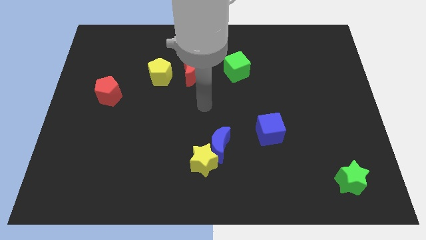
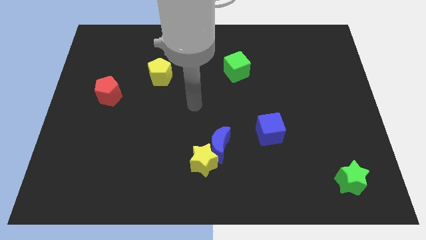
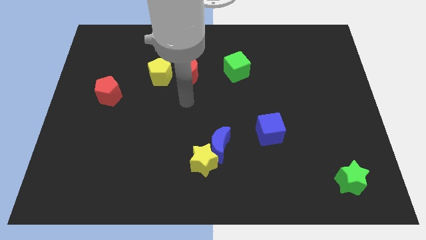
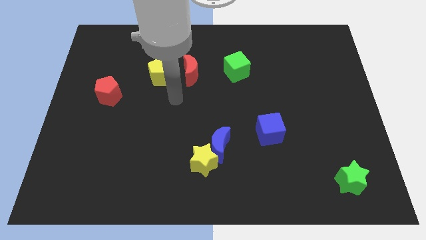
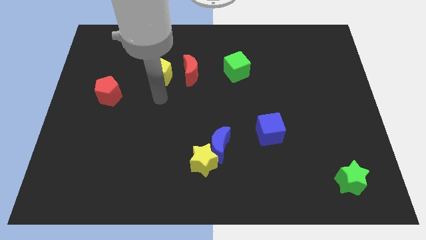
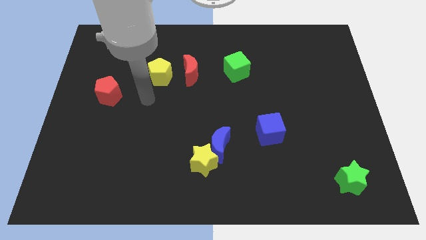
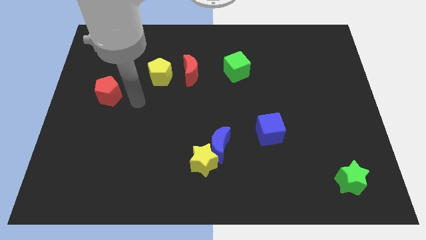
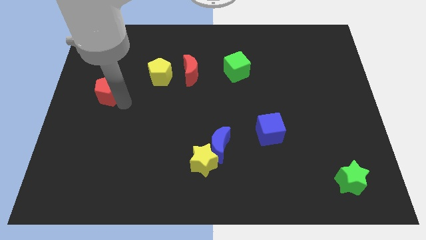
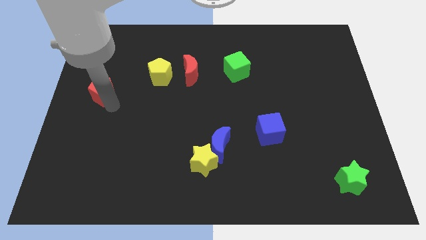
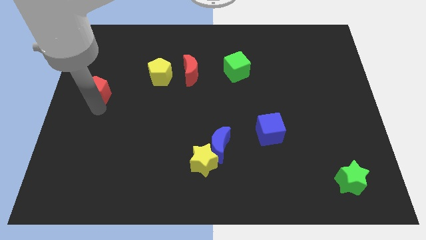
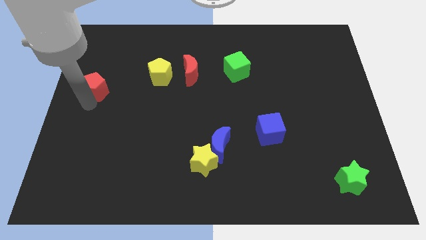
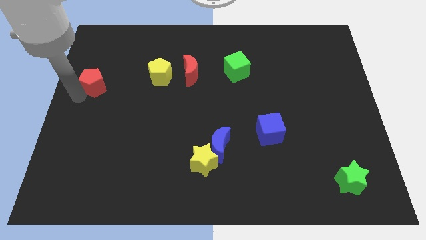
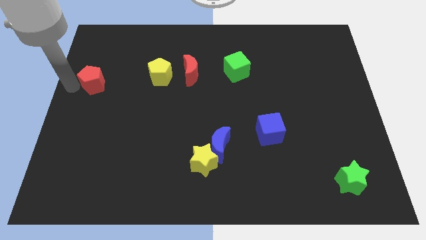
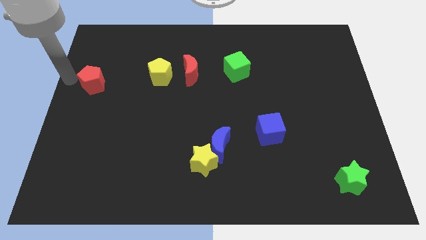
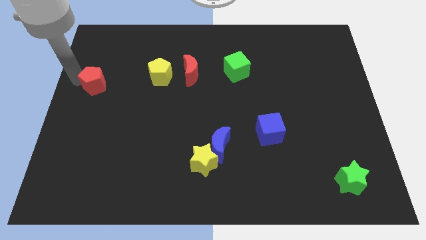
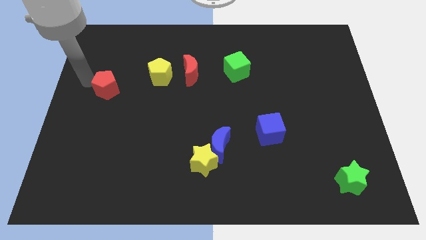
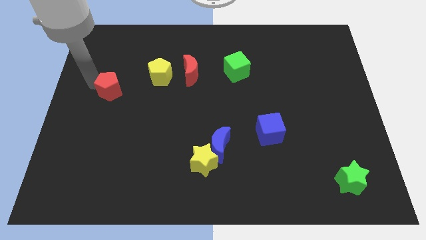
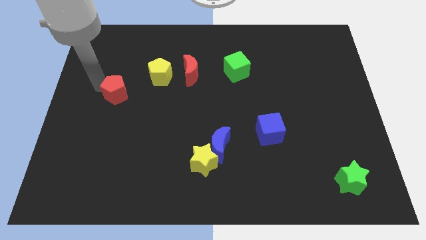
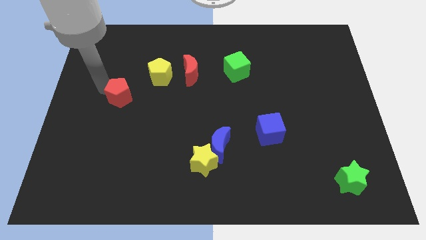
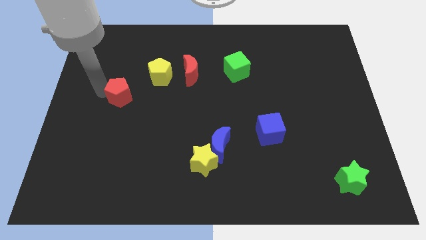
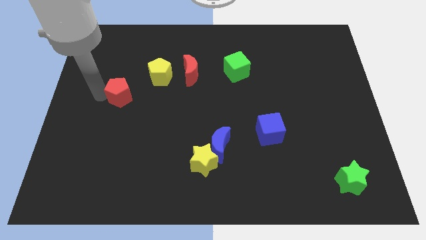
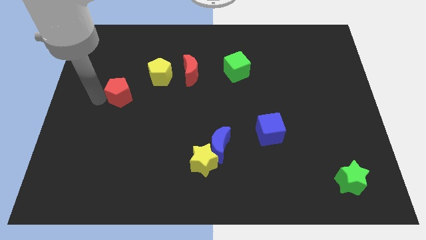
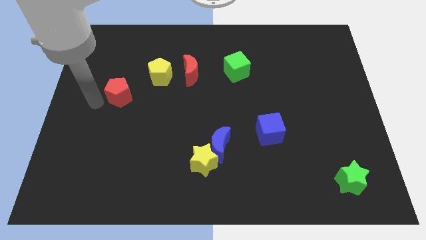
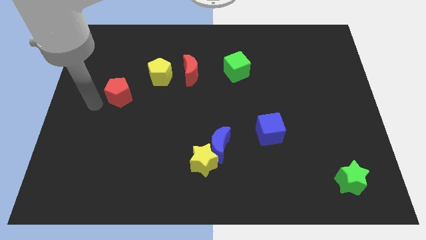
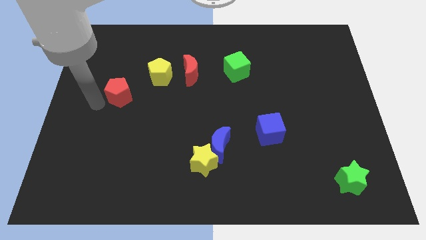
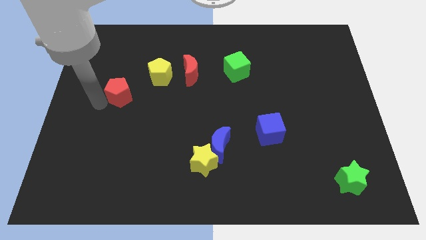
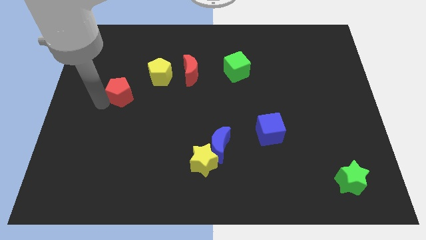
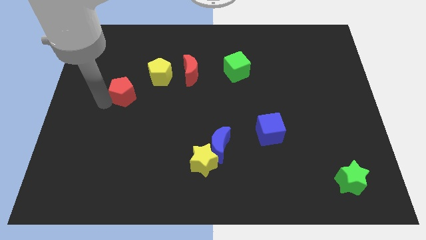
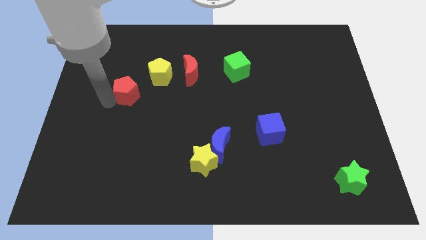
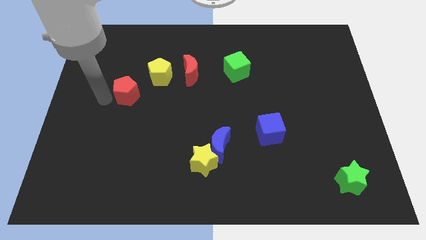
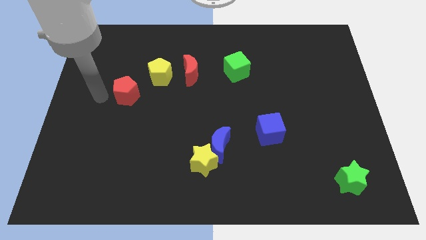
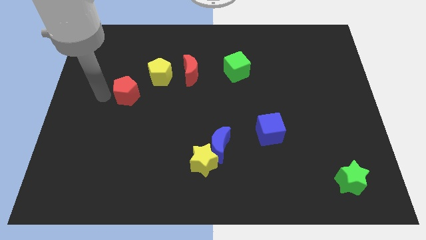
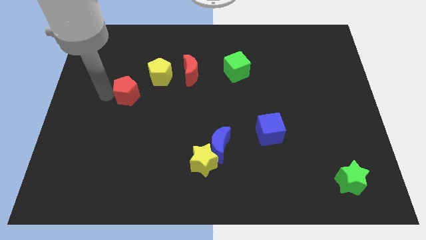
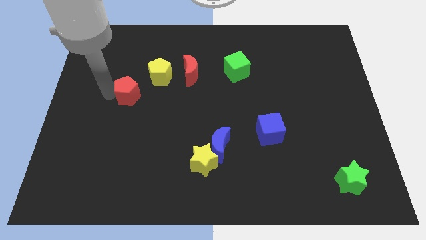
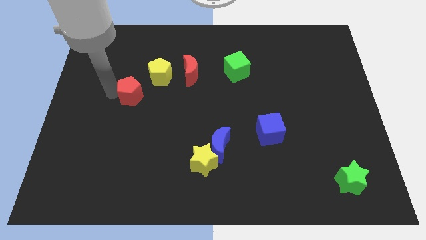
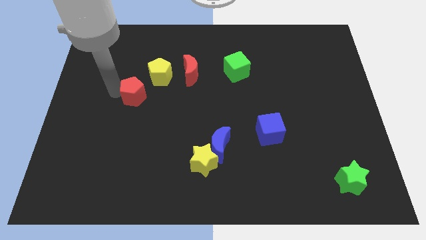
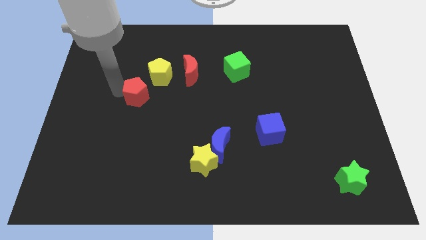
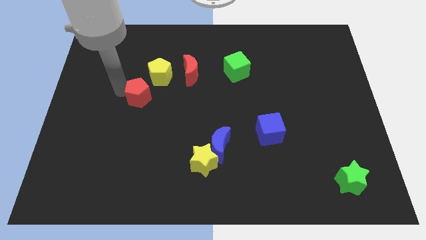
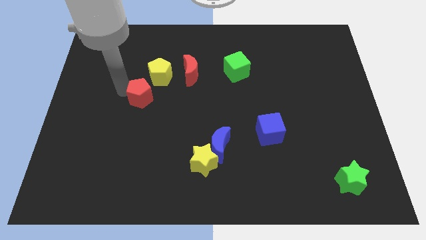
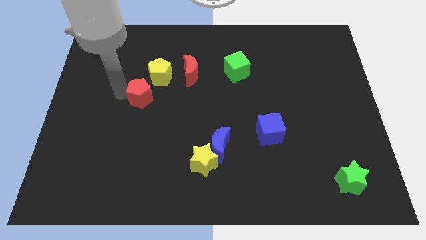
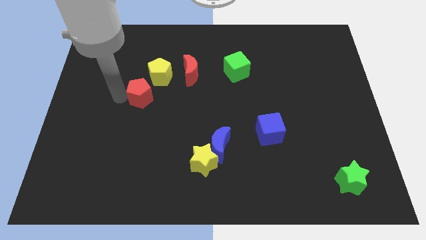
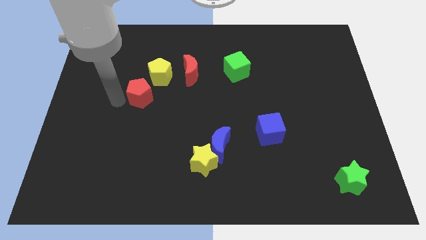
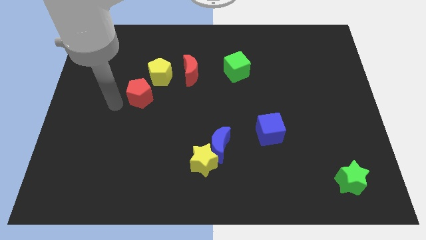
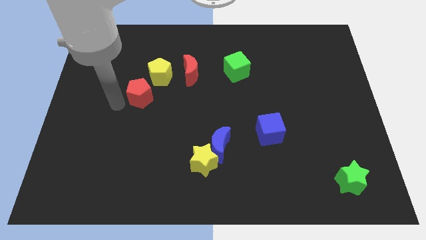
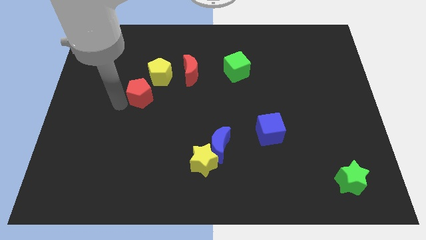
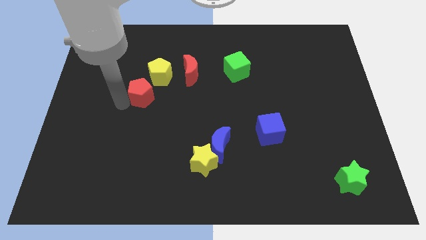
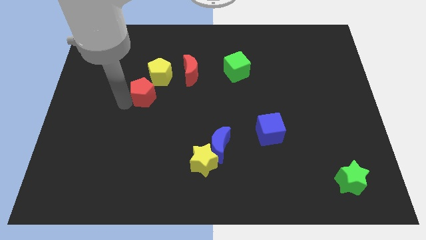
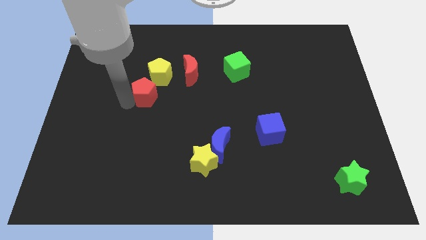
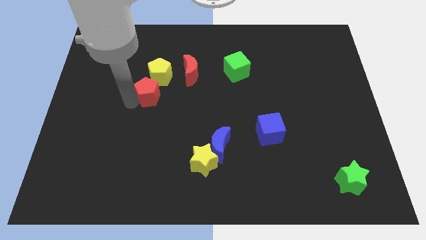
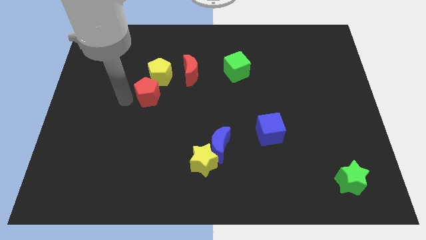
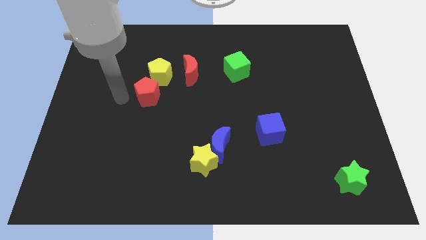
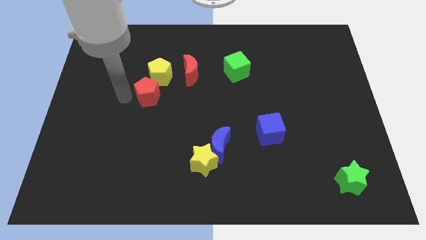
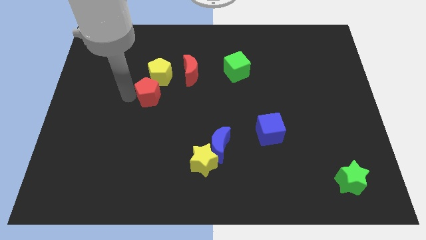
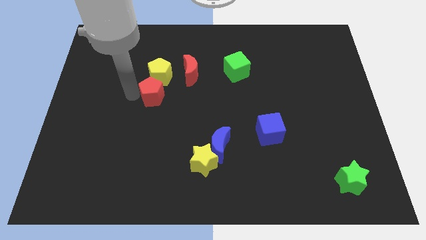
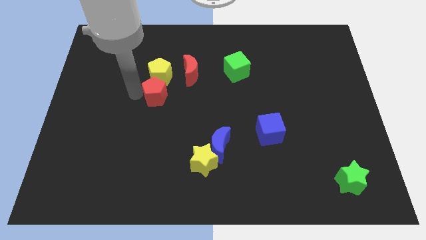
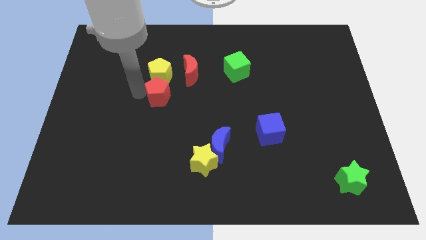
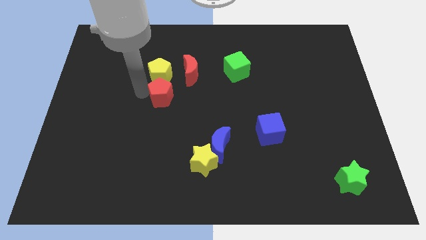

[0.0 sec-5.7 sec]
move the red pentagon to the center of the board

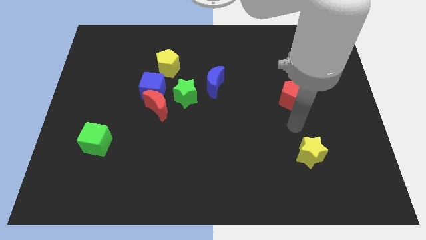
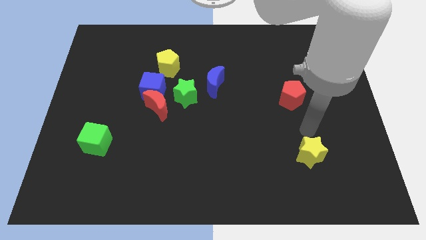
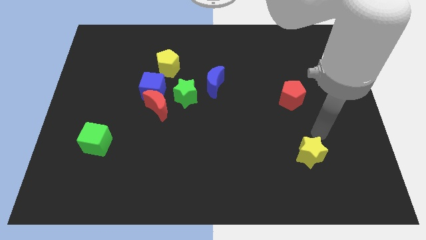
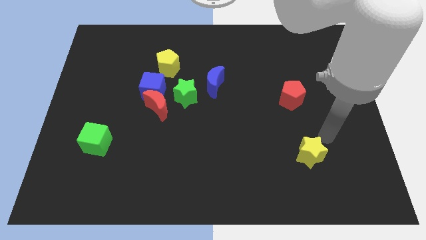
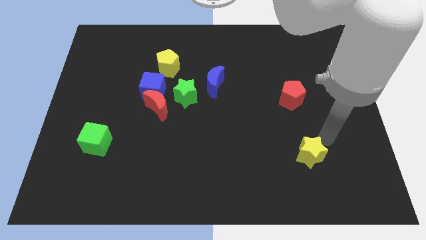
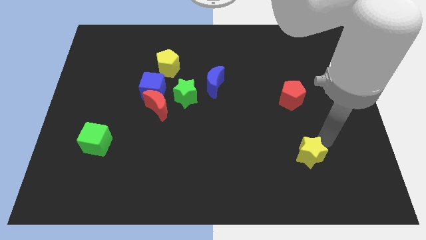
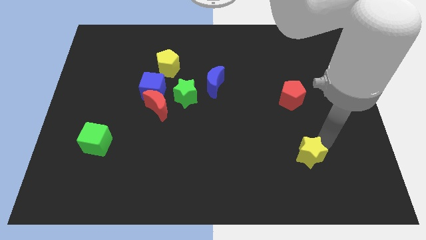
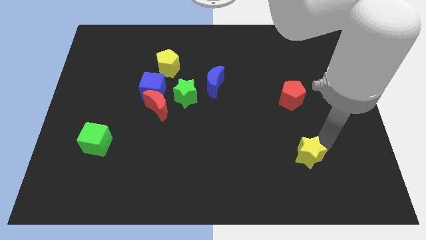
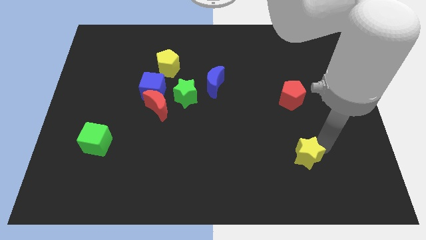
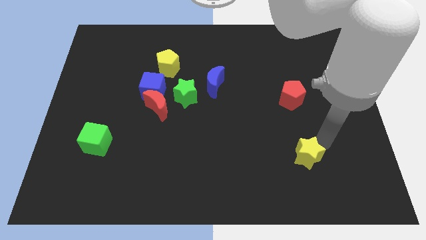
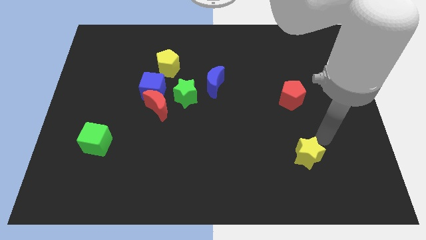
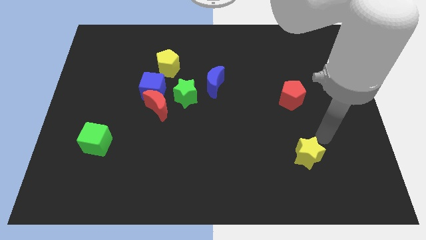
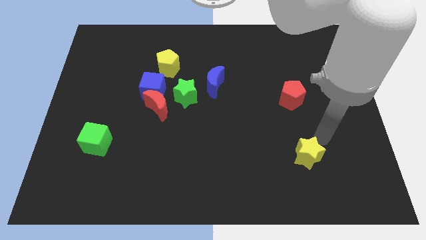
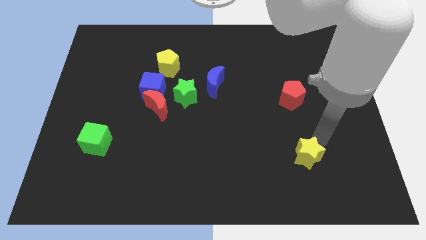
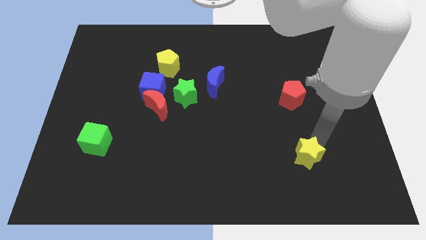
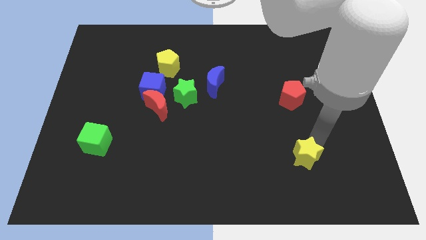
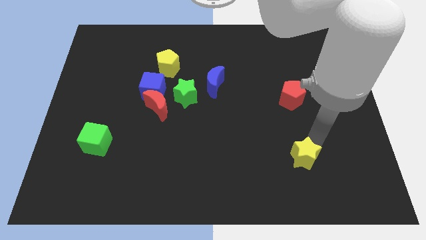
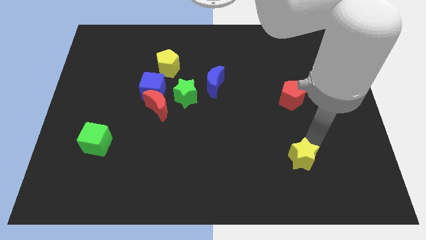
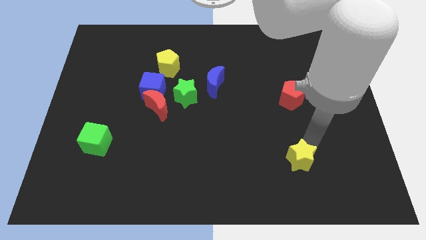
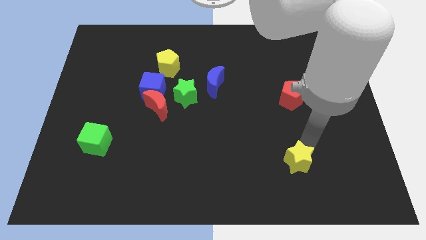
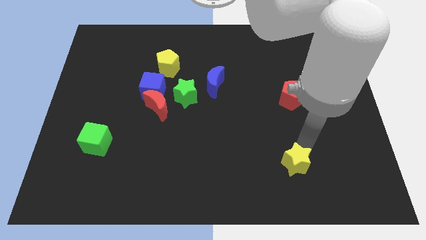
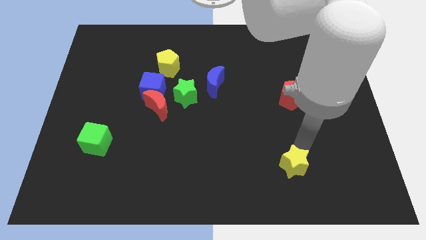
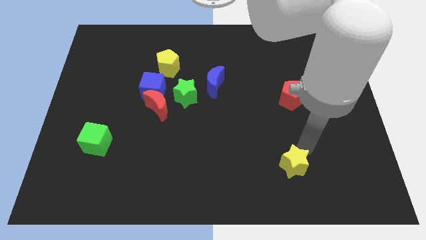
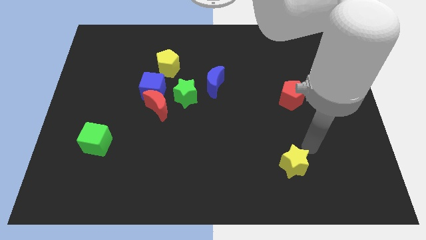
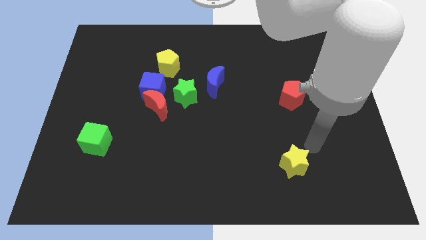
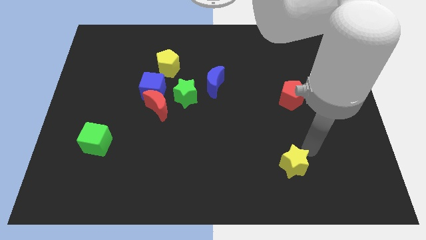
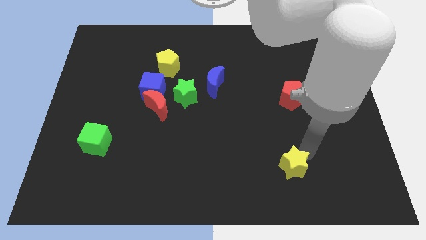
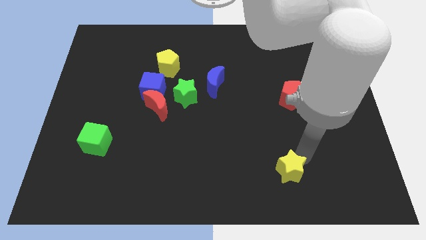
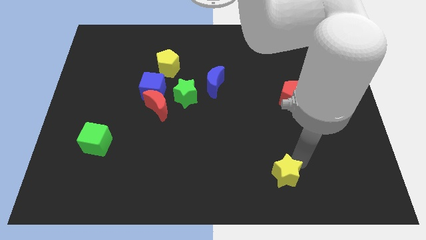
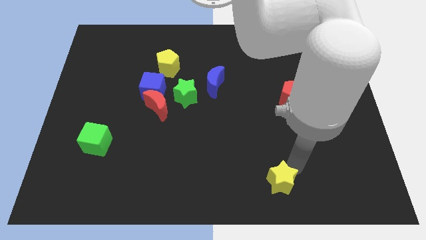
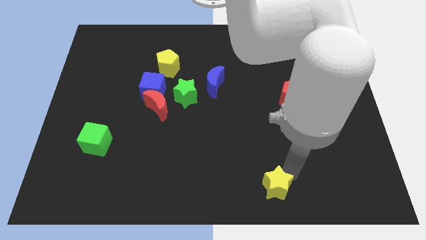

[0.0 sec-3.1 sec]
slide the yellow star to the bottom
